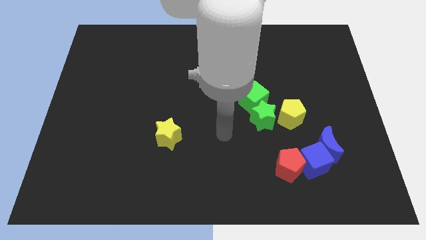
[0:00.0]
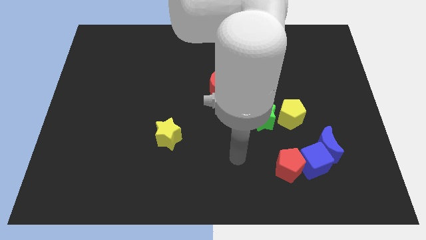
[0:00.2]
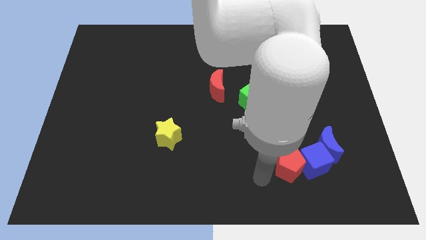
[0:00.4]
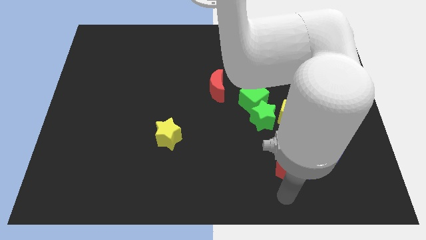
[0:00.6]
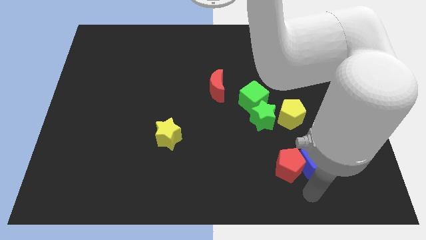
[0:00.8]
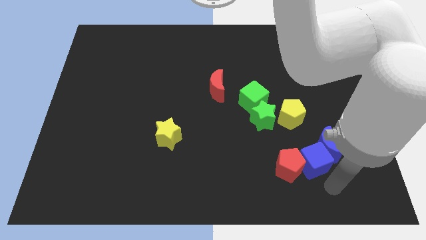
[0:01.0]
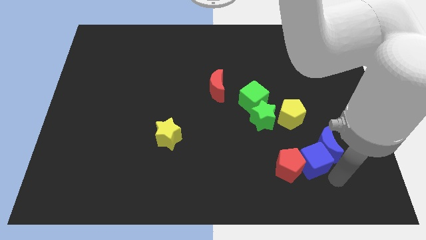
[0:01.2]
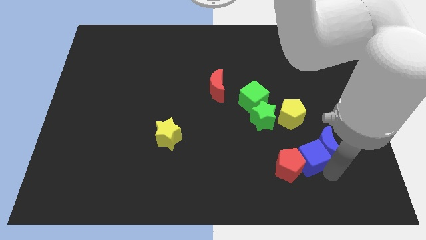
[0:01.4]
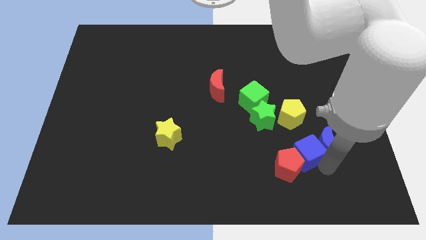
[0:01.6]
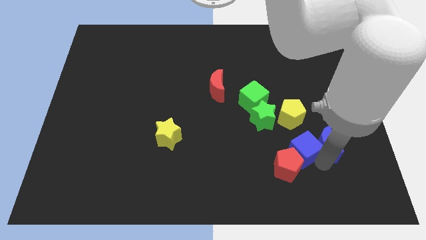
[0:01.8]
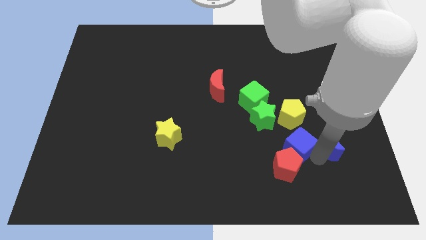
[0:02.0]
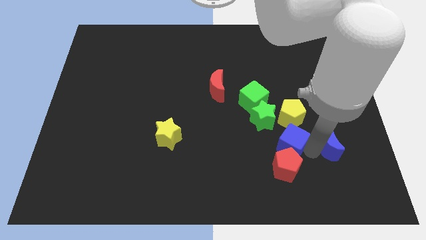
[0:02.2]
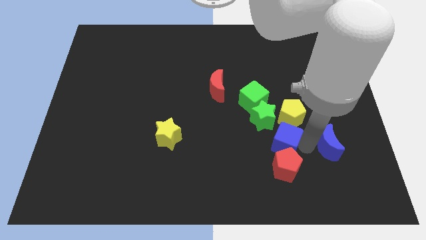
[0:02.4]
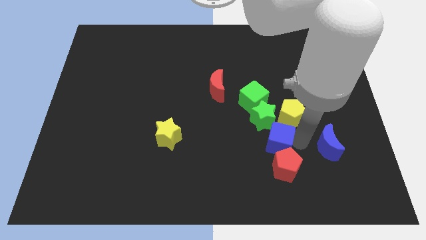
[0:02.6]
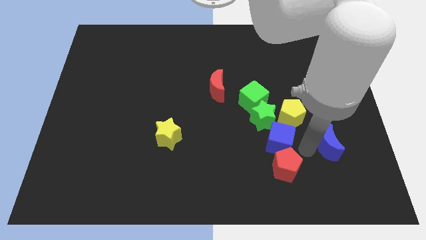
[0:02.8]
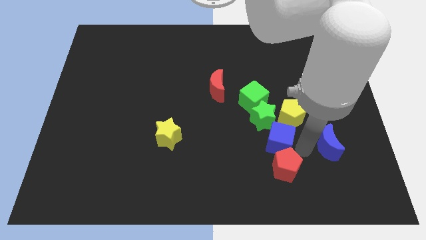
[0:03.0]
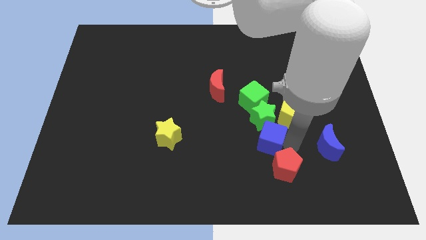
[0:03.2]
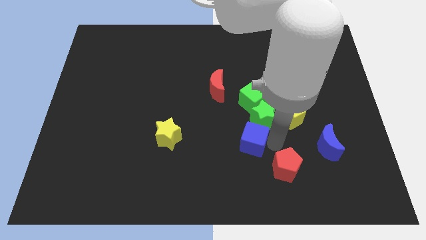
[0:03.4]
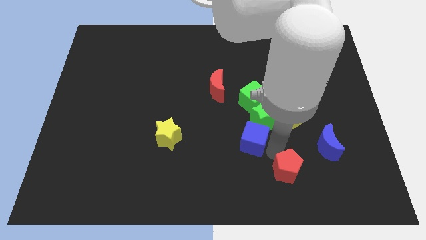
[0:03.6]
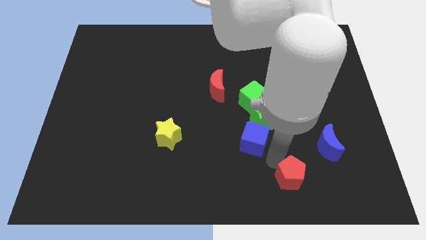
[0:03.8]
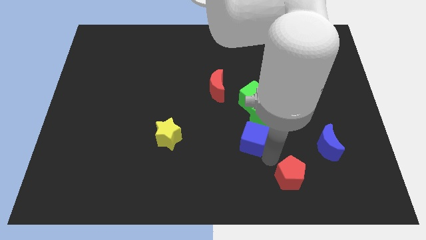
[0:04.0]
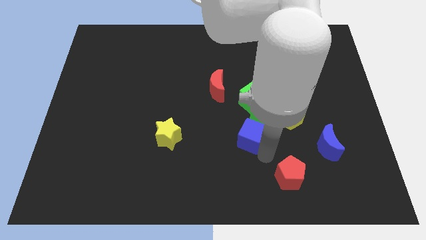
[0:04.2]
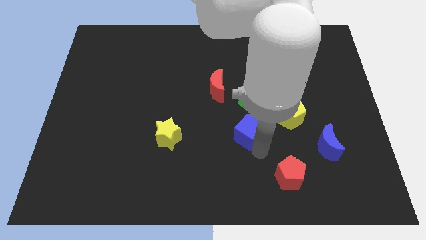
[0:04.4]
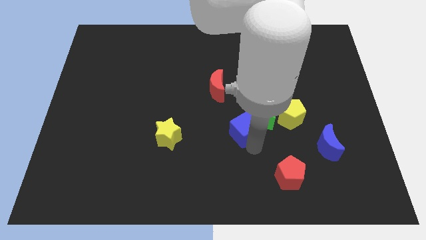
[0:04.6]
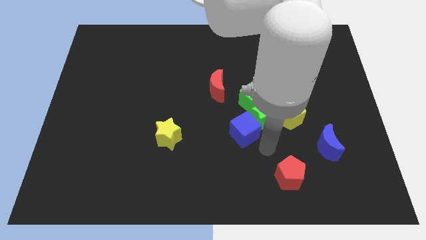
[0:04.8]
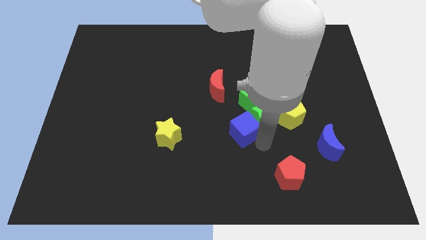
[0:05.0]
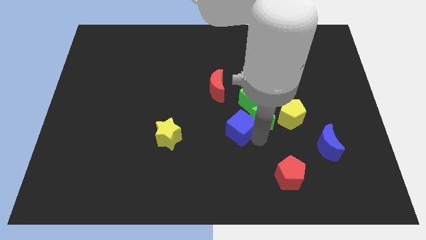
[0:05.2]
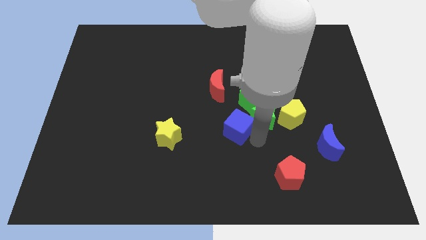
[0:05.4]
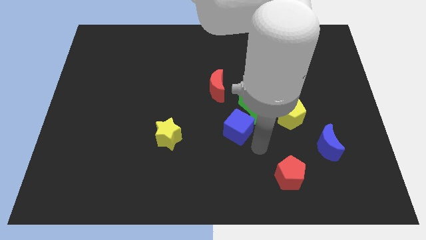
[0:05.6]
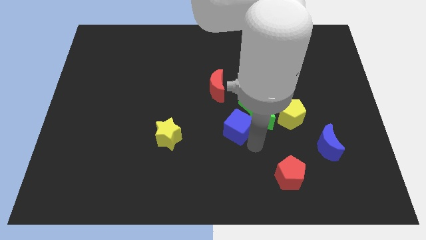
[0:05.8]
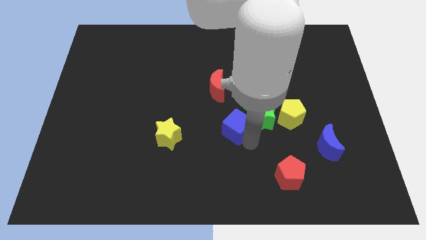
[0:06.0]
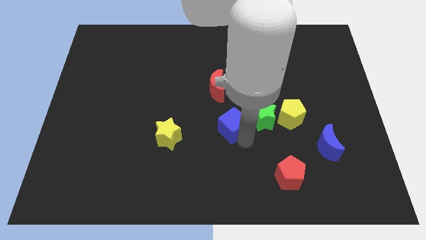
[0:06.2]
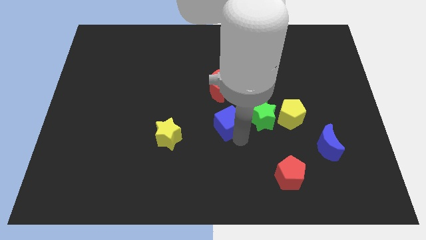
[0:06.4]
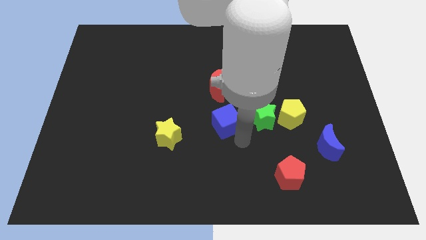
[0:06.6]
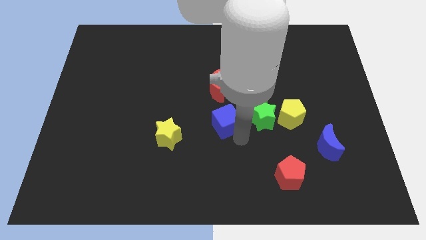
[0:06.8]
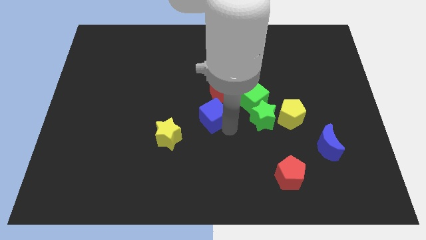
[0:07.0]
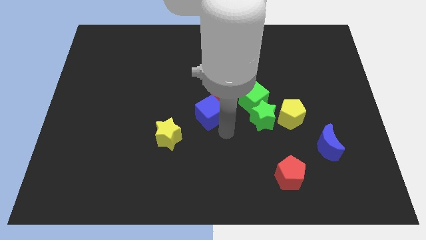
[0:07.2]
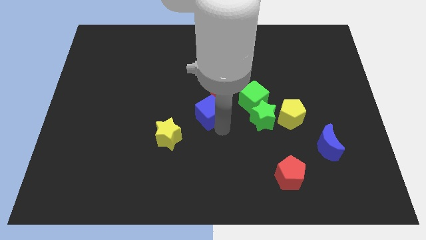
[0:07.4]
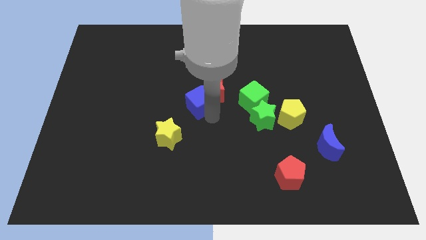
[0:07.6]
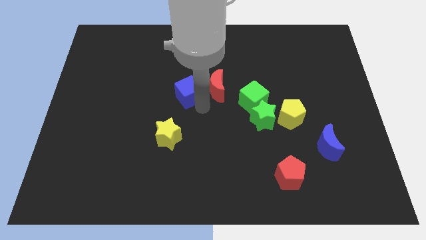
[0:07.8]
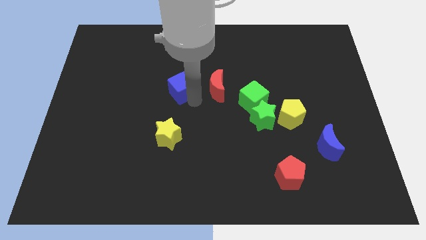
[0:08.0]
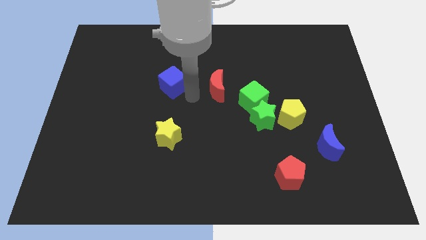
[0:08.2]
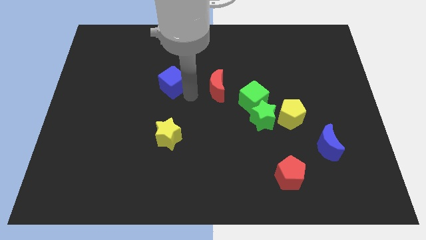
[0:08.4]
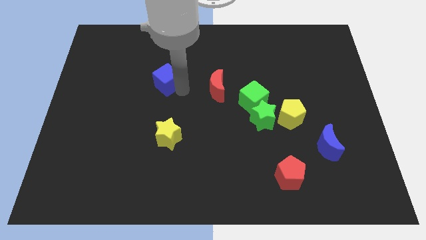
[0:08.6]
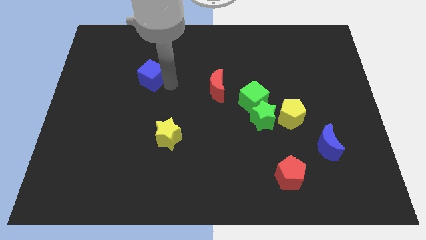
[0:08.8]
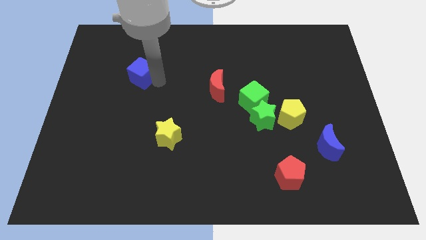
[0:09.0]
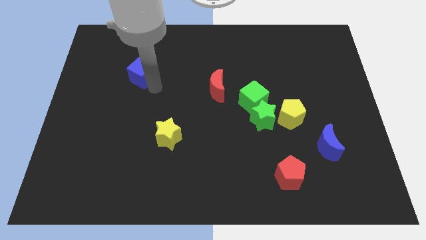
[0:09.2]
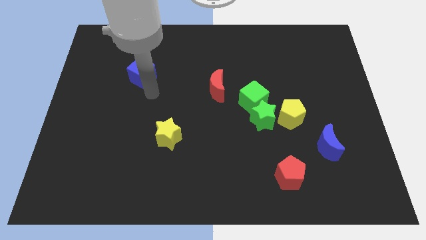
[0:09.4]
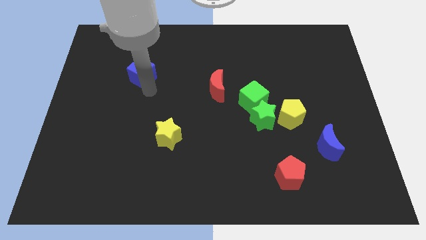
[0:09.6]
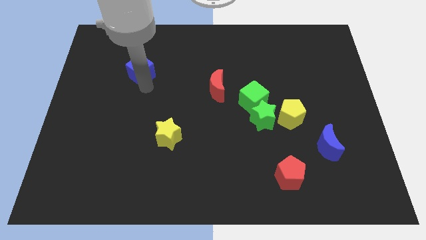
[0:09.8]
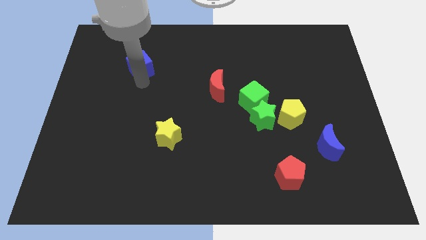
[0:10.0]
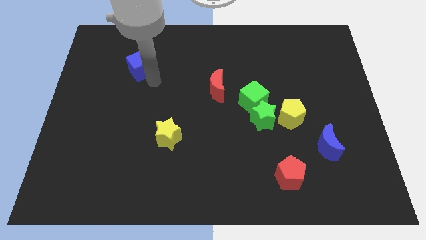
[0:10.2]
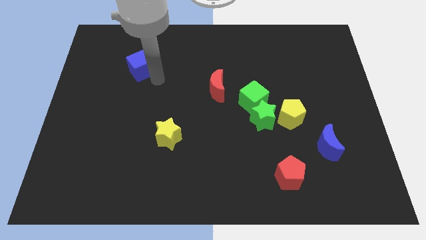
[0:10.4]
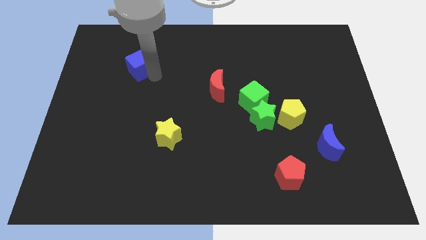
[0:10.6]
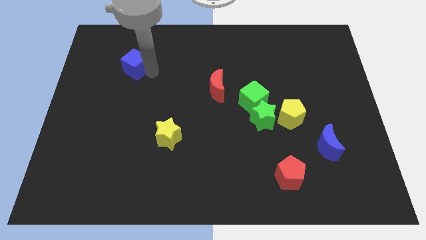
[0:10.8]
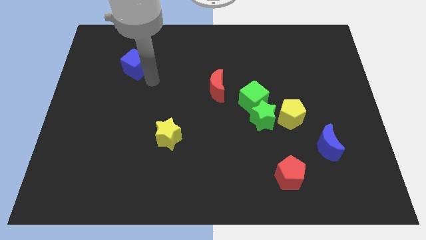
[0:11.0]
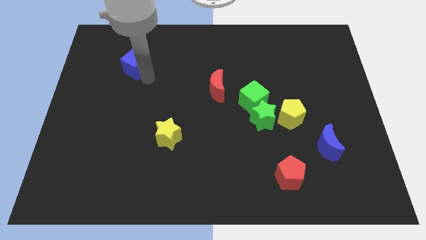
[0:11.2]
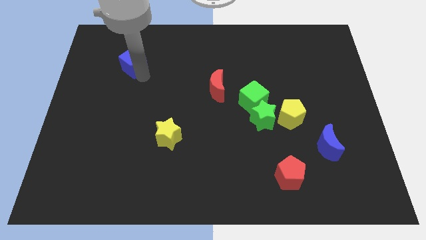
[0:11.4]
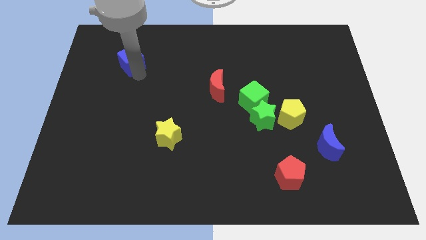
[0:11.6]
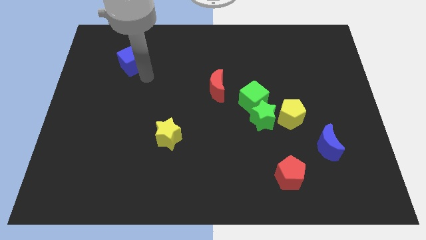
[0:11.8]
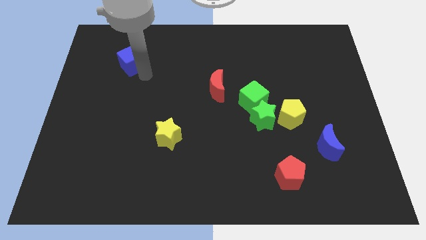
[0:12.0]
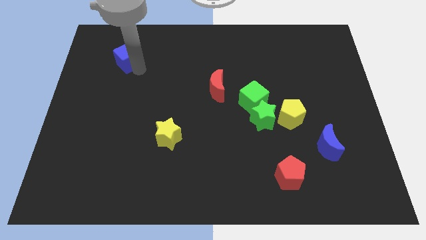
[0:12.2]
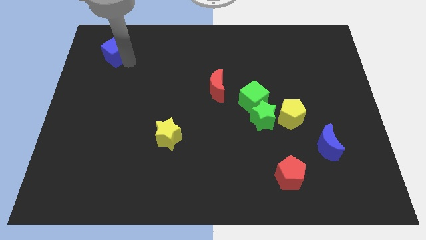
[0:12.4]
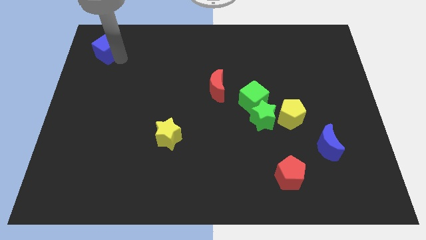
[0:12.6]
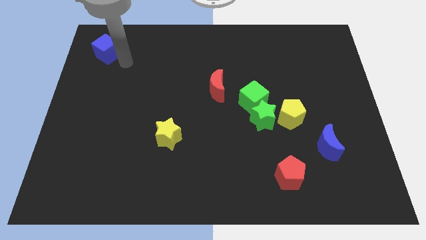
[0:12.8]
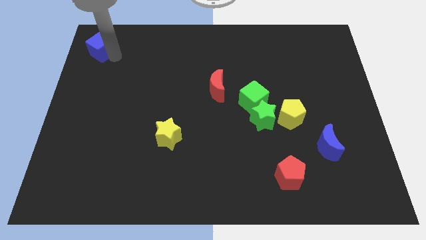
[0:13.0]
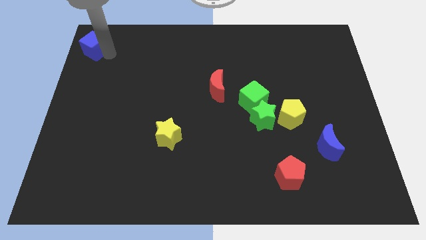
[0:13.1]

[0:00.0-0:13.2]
push the blue cube to the upper left corner
